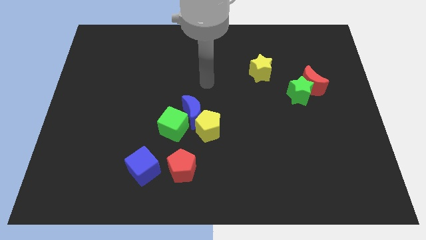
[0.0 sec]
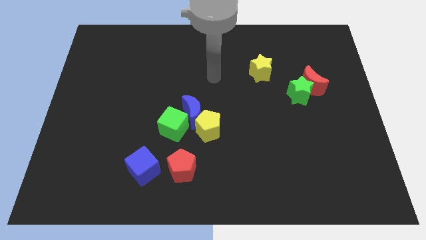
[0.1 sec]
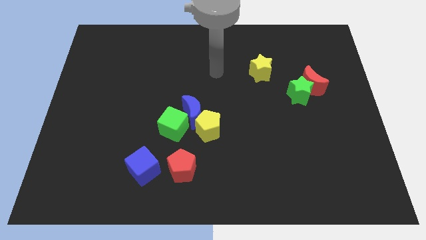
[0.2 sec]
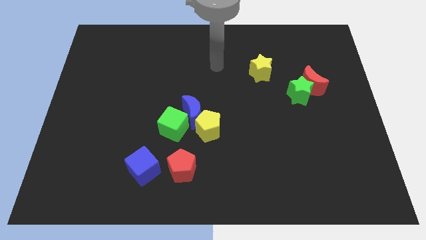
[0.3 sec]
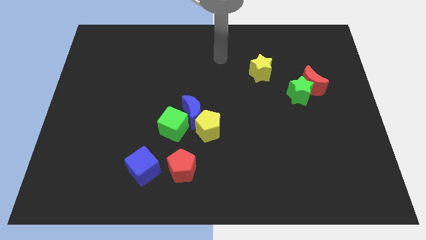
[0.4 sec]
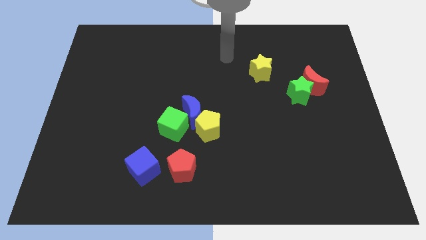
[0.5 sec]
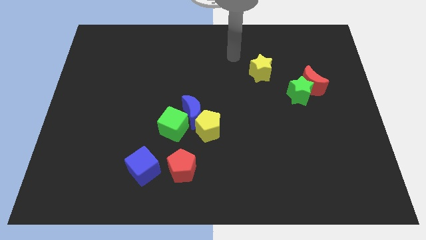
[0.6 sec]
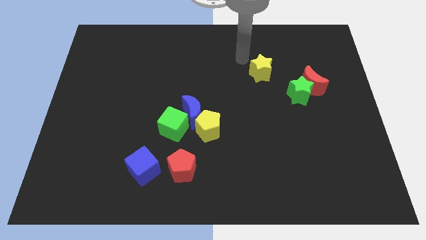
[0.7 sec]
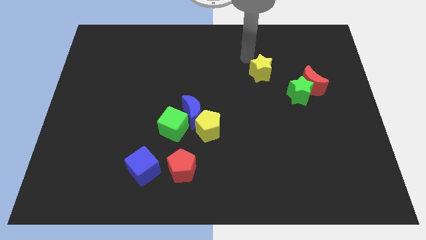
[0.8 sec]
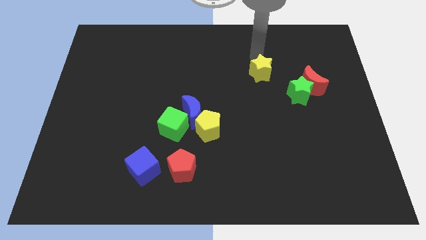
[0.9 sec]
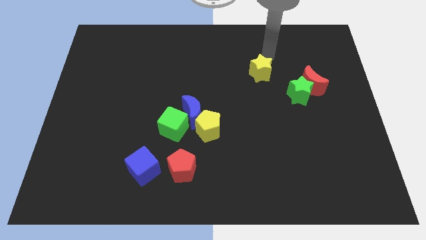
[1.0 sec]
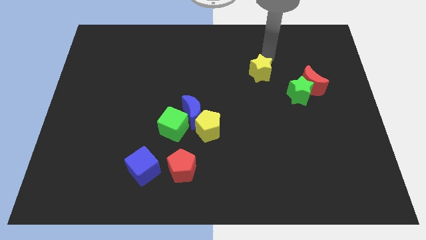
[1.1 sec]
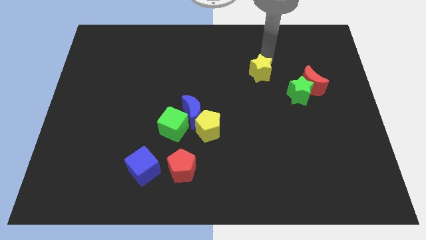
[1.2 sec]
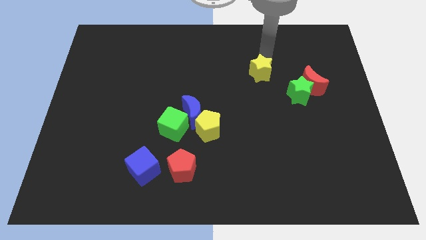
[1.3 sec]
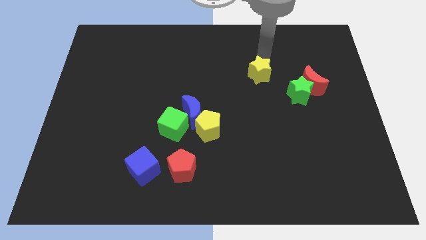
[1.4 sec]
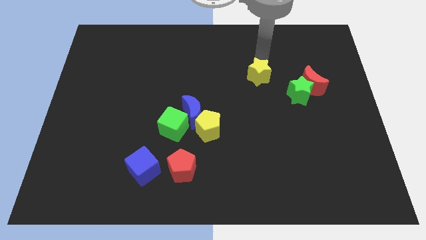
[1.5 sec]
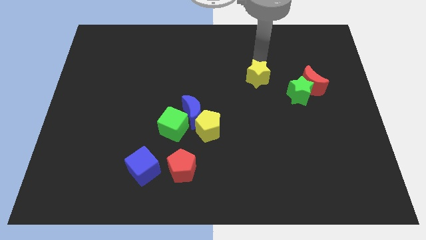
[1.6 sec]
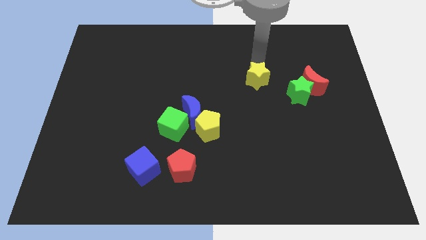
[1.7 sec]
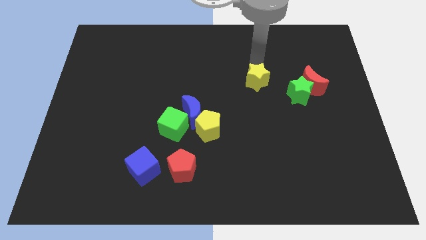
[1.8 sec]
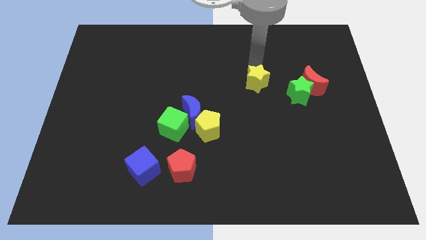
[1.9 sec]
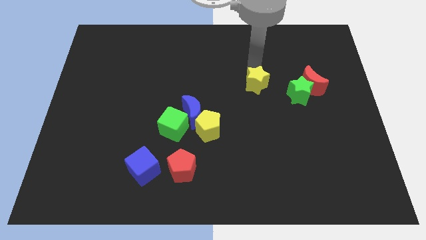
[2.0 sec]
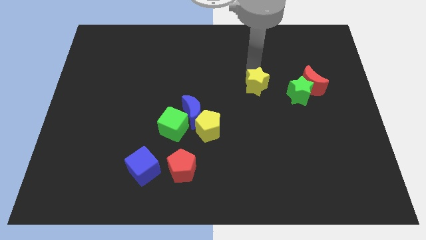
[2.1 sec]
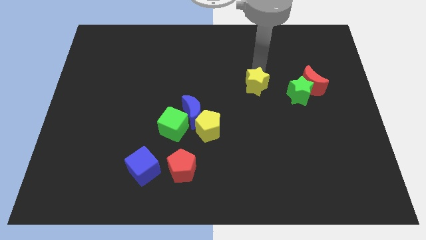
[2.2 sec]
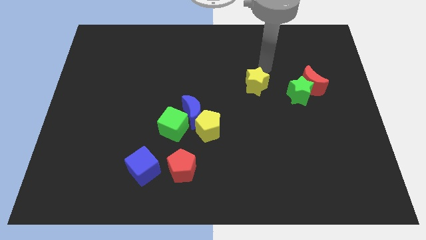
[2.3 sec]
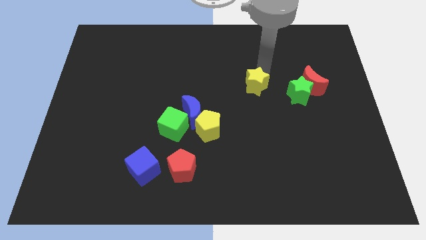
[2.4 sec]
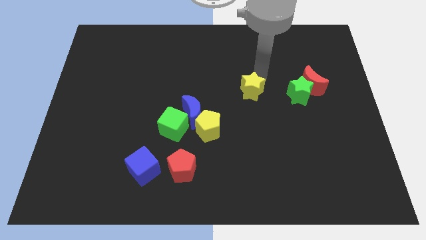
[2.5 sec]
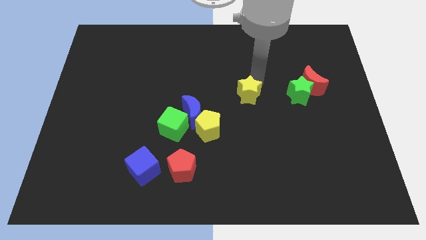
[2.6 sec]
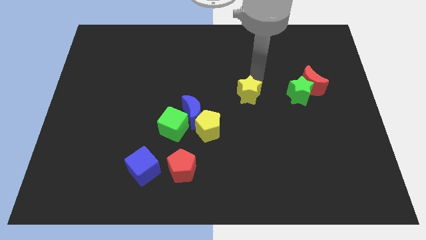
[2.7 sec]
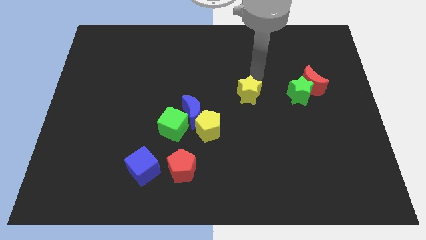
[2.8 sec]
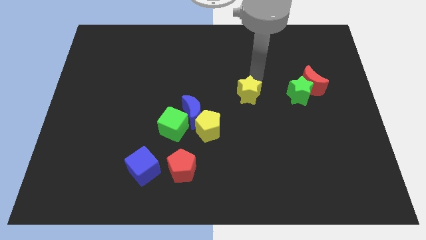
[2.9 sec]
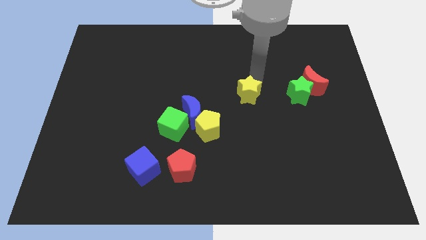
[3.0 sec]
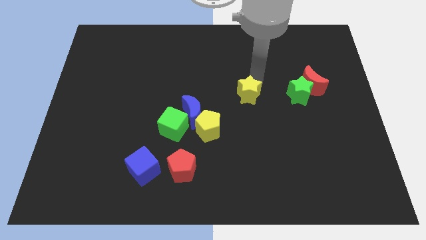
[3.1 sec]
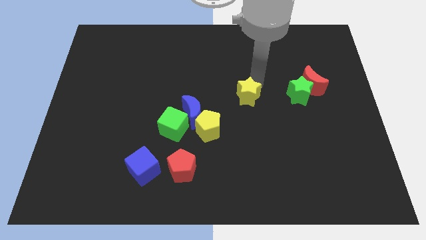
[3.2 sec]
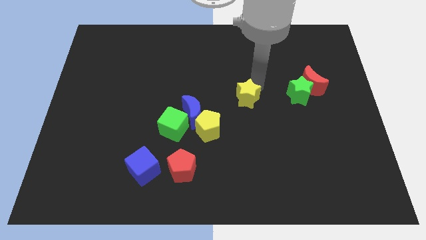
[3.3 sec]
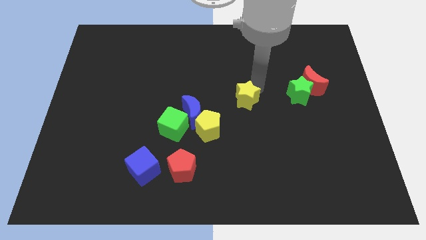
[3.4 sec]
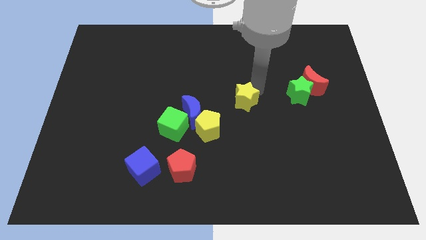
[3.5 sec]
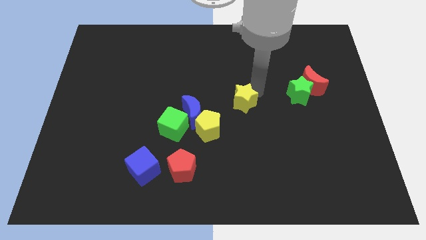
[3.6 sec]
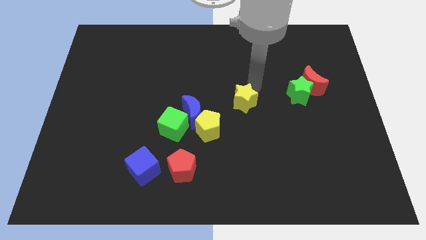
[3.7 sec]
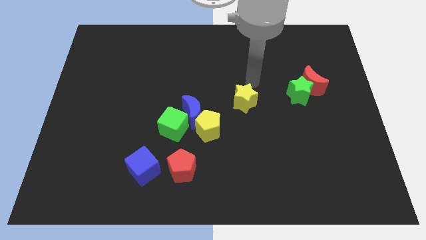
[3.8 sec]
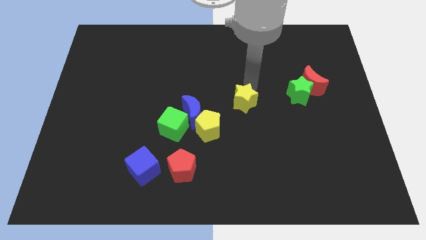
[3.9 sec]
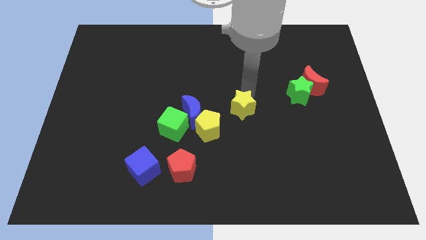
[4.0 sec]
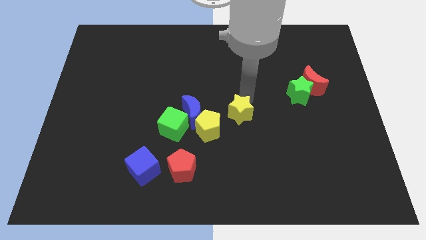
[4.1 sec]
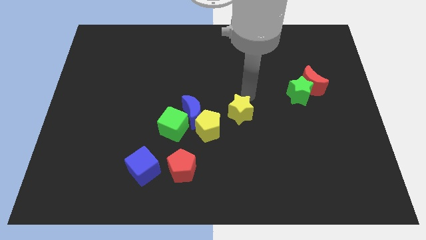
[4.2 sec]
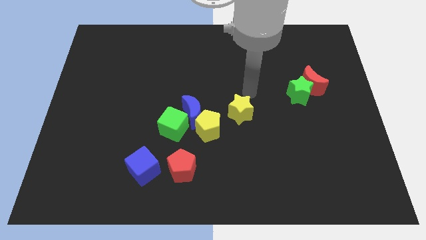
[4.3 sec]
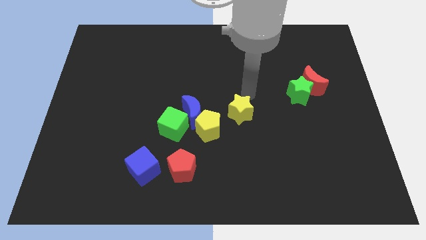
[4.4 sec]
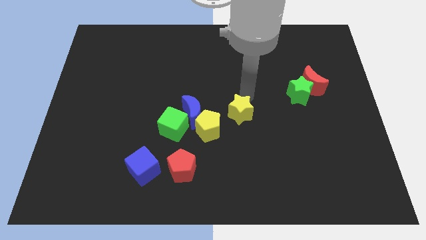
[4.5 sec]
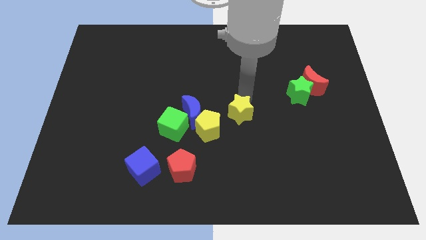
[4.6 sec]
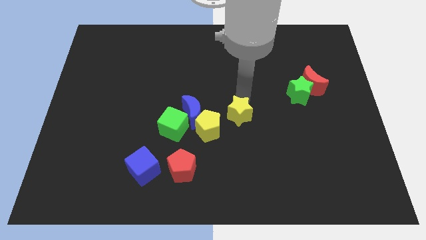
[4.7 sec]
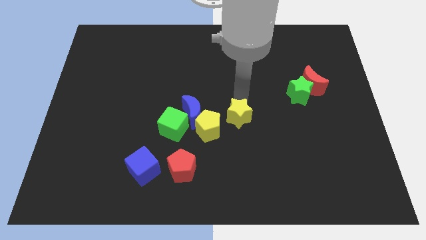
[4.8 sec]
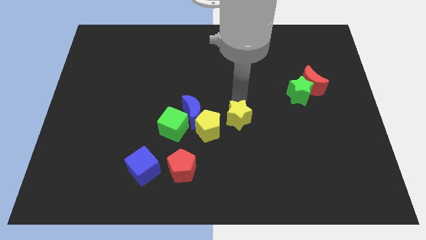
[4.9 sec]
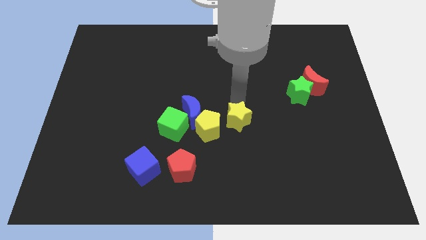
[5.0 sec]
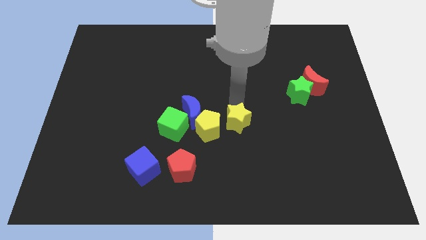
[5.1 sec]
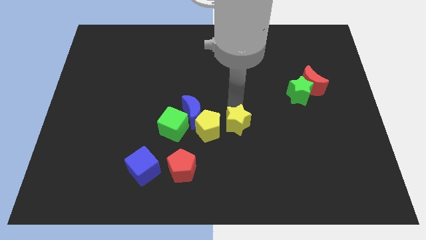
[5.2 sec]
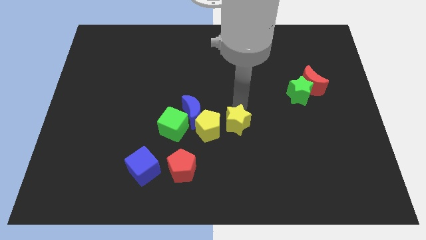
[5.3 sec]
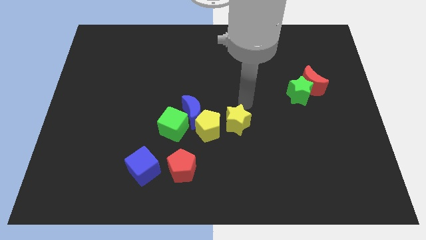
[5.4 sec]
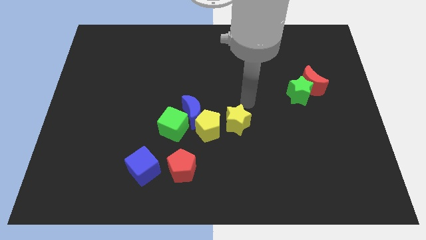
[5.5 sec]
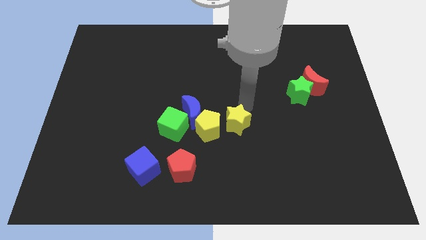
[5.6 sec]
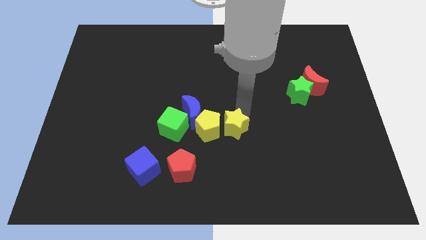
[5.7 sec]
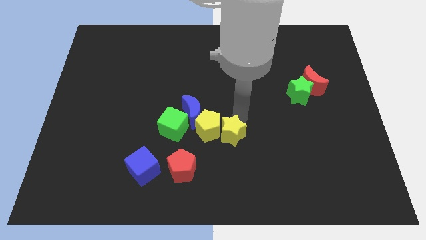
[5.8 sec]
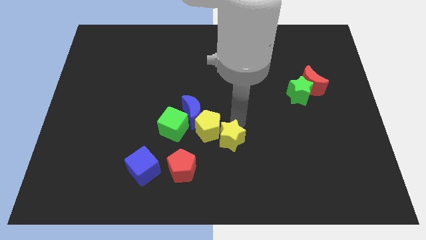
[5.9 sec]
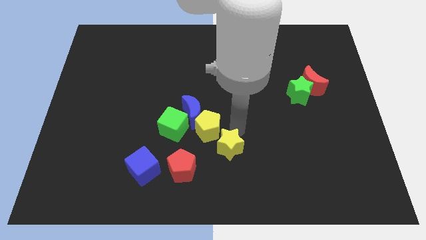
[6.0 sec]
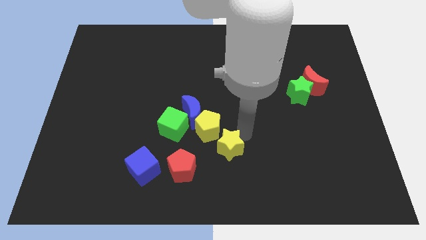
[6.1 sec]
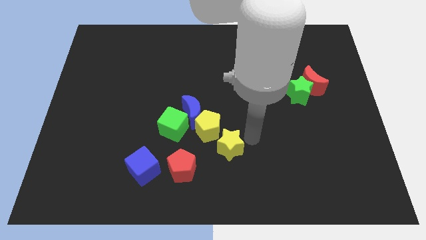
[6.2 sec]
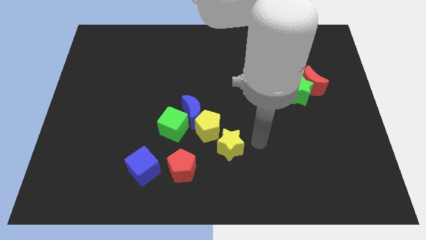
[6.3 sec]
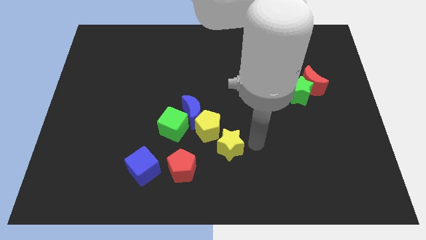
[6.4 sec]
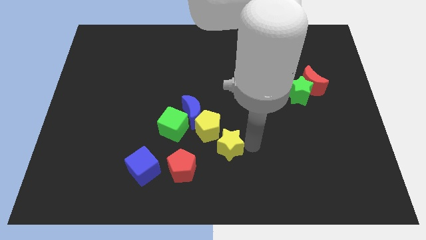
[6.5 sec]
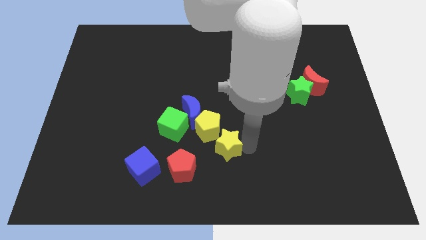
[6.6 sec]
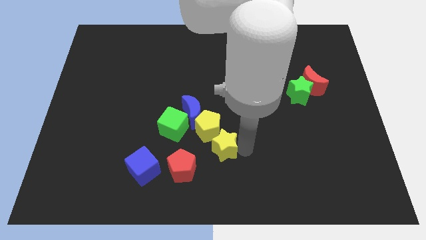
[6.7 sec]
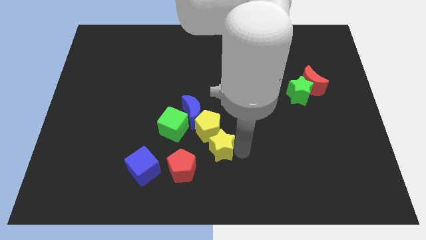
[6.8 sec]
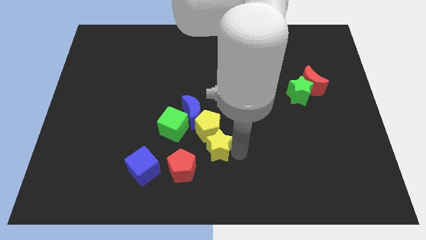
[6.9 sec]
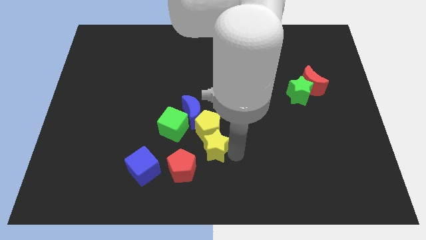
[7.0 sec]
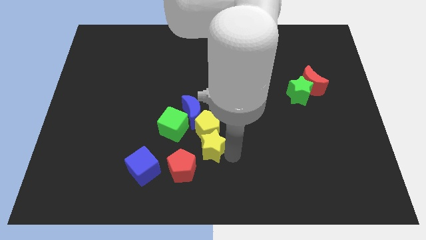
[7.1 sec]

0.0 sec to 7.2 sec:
slide the yellow star to the bottom of the blue moon
